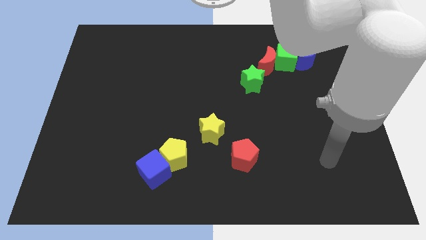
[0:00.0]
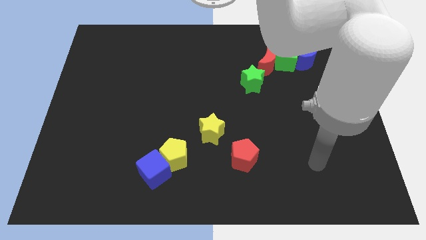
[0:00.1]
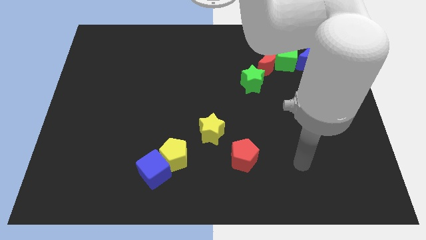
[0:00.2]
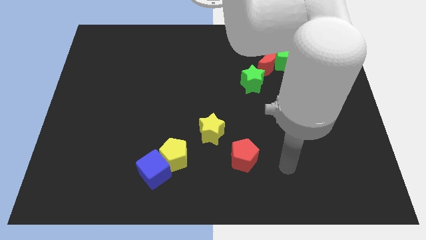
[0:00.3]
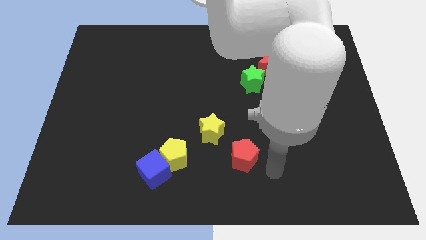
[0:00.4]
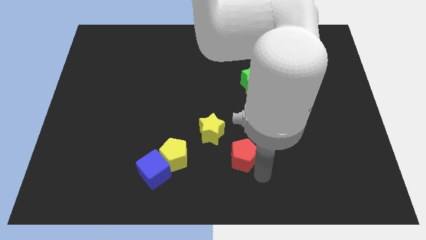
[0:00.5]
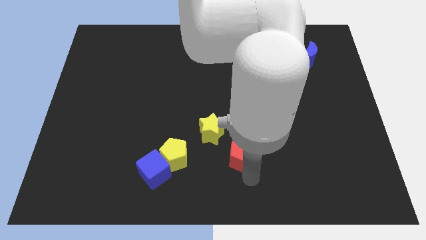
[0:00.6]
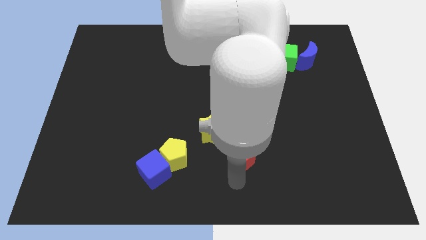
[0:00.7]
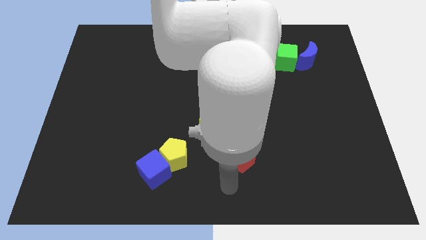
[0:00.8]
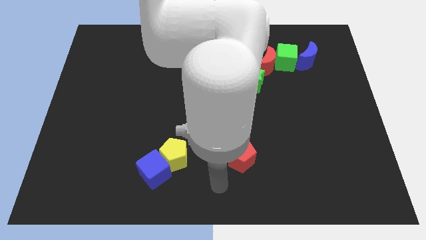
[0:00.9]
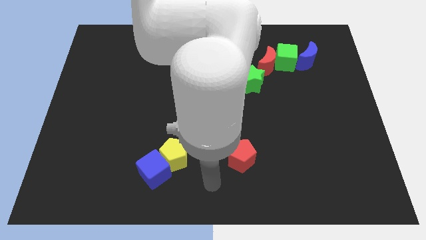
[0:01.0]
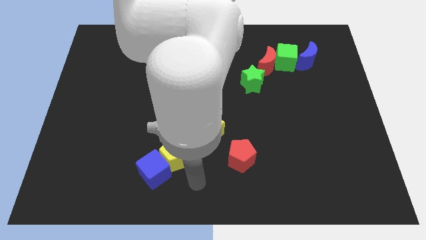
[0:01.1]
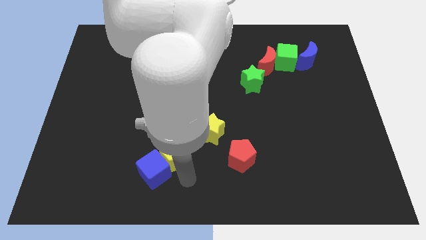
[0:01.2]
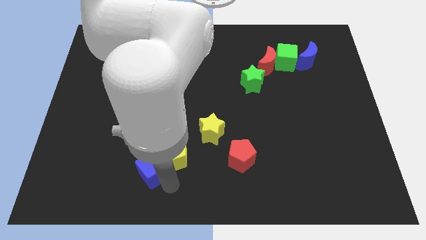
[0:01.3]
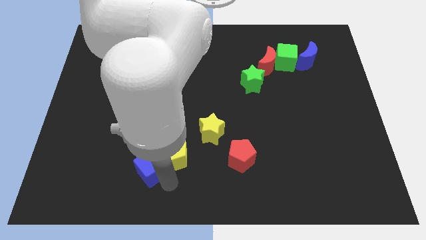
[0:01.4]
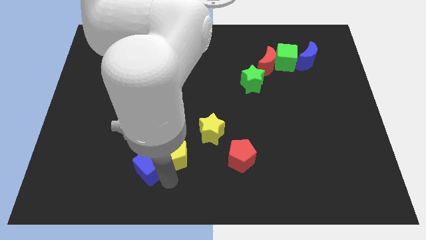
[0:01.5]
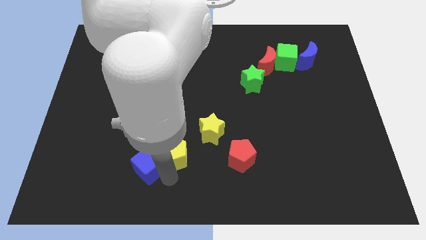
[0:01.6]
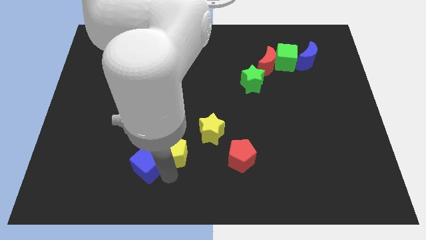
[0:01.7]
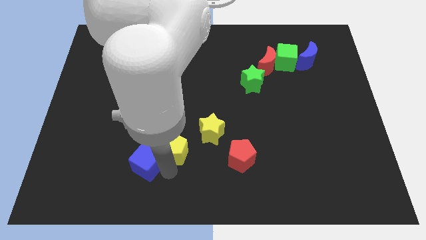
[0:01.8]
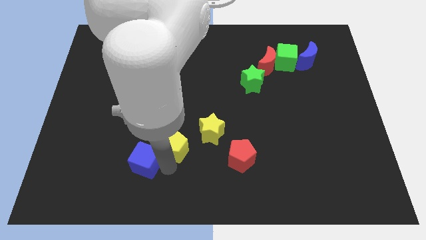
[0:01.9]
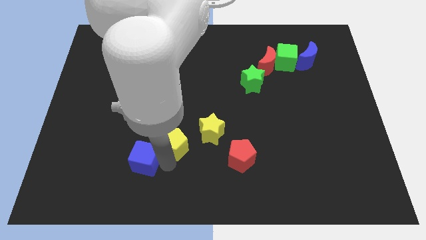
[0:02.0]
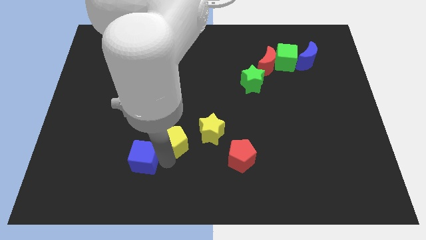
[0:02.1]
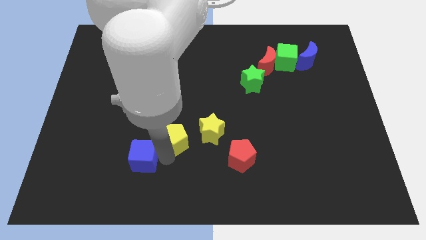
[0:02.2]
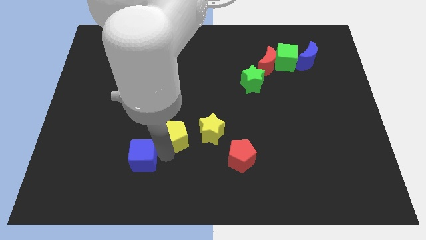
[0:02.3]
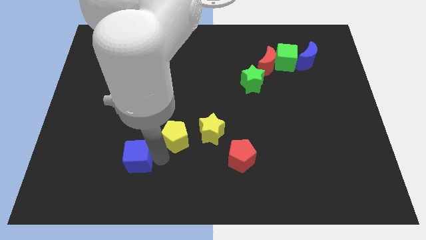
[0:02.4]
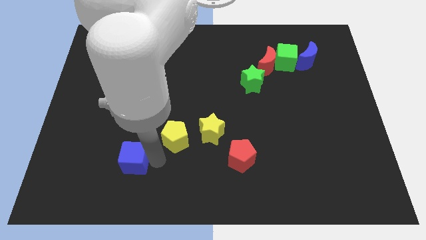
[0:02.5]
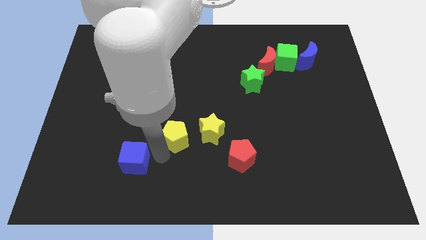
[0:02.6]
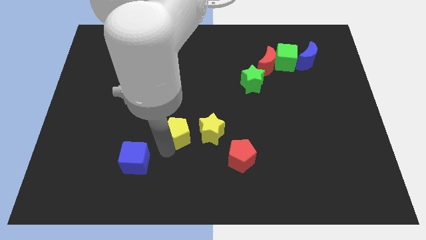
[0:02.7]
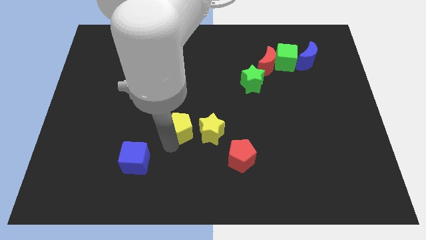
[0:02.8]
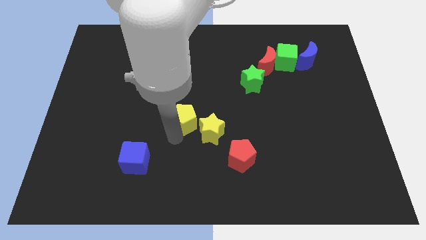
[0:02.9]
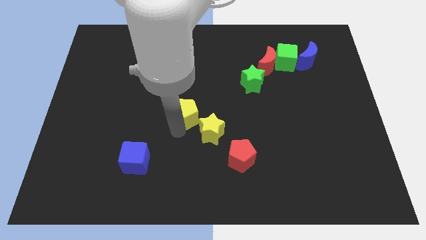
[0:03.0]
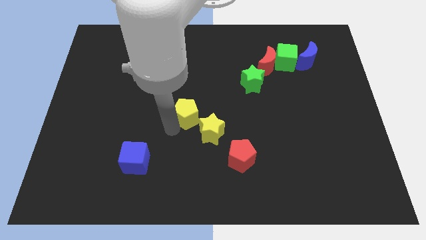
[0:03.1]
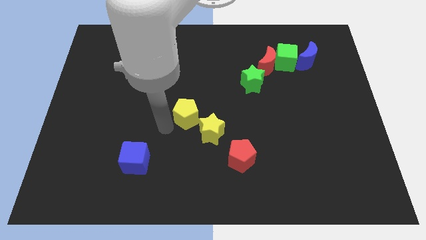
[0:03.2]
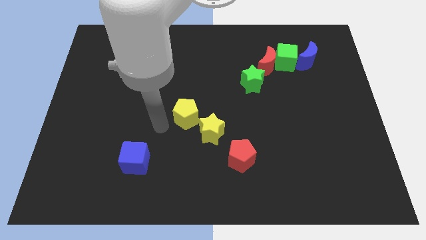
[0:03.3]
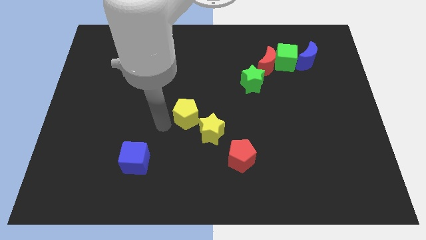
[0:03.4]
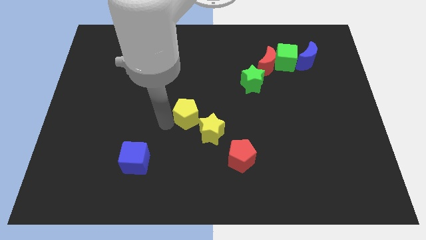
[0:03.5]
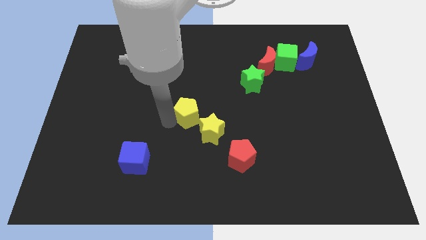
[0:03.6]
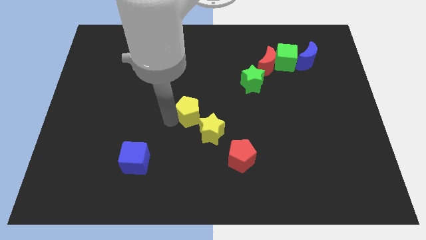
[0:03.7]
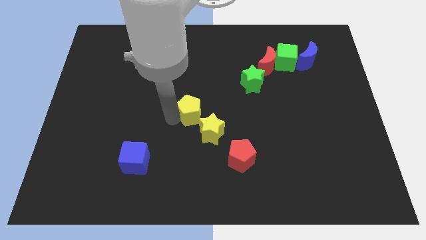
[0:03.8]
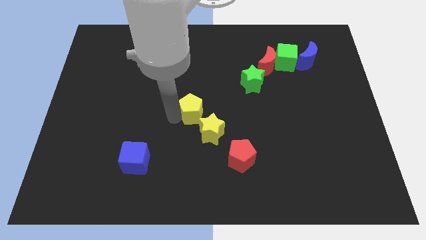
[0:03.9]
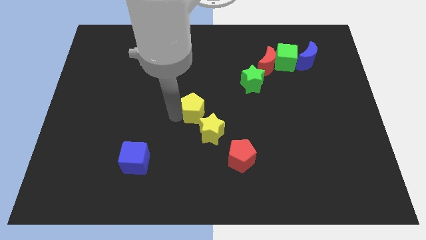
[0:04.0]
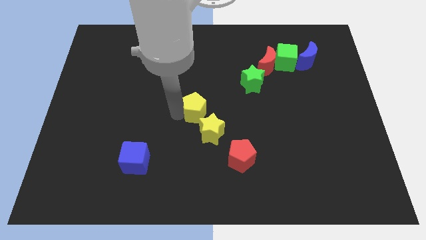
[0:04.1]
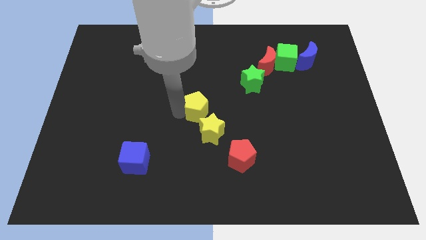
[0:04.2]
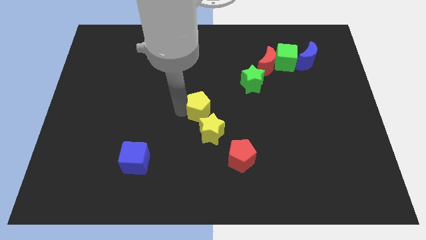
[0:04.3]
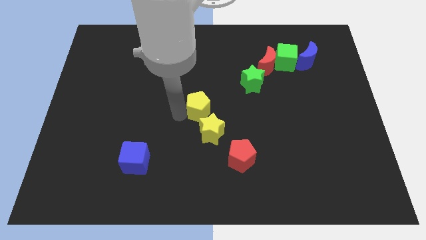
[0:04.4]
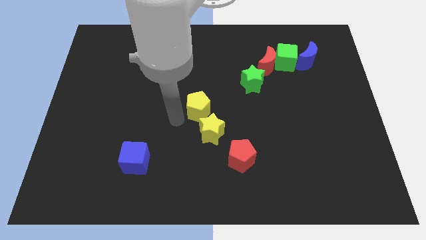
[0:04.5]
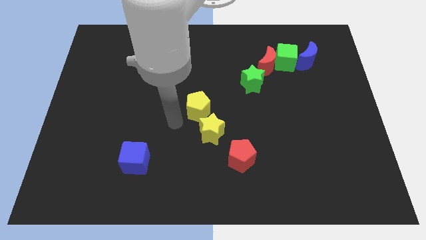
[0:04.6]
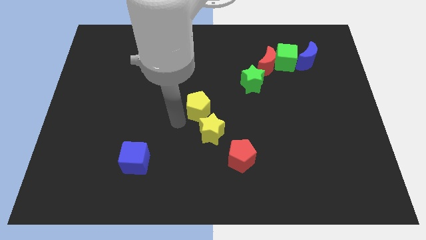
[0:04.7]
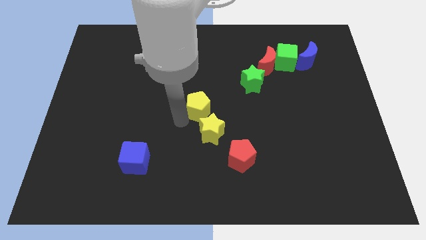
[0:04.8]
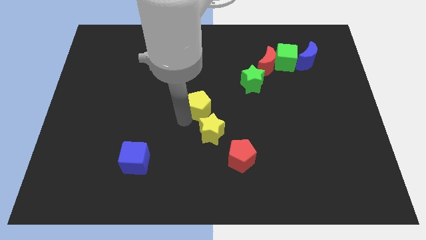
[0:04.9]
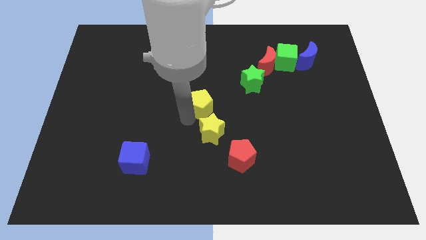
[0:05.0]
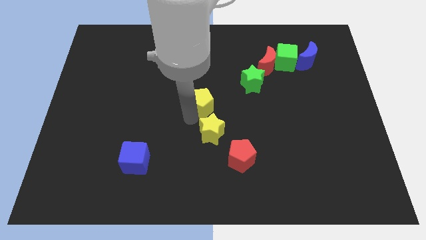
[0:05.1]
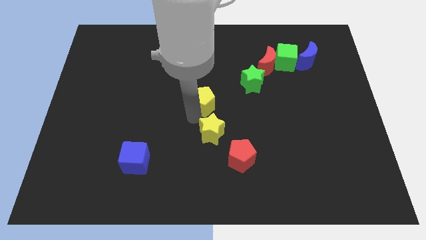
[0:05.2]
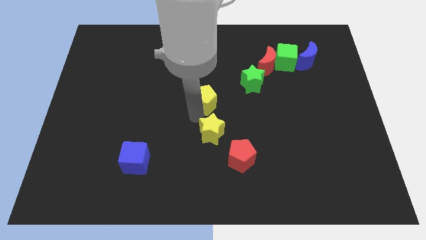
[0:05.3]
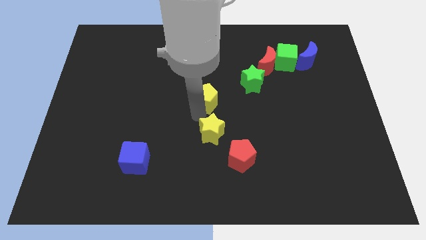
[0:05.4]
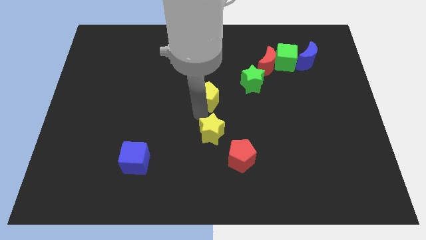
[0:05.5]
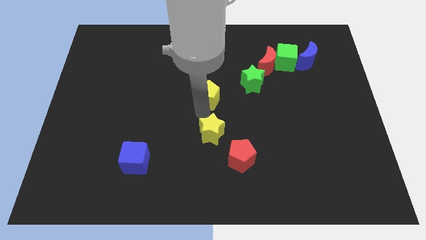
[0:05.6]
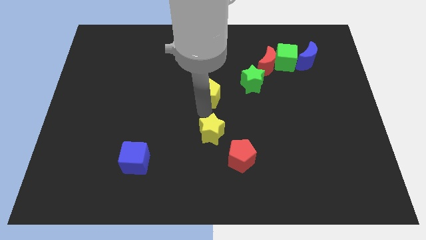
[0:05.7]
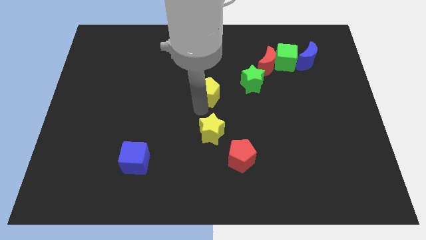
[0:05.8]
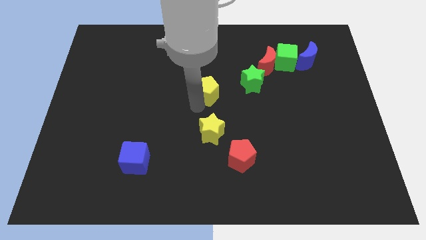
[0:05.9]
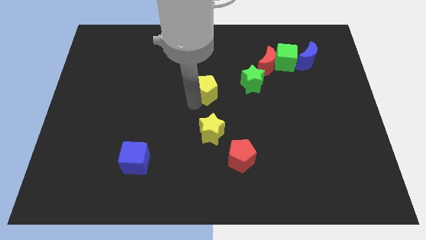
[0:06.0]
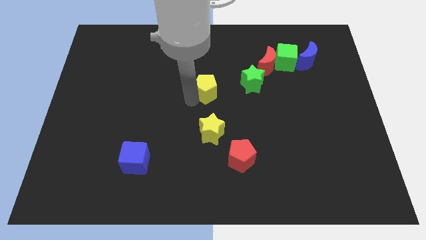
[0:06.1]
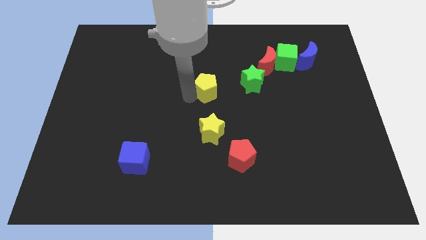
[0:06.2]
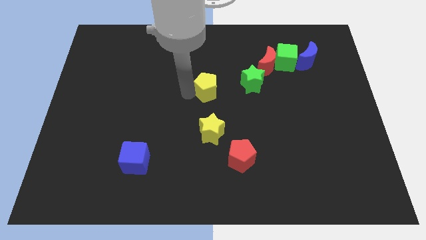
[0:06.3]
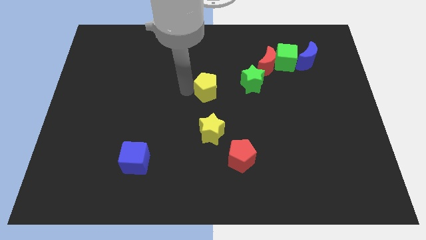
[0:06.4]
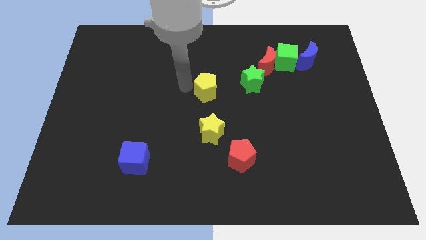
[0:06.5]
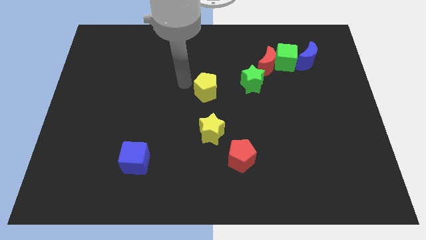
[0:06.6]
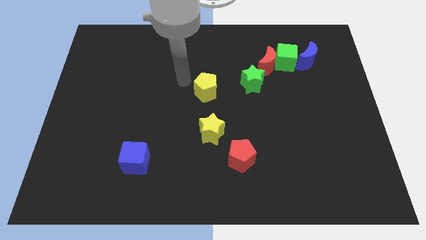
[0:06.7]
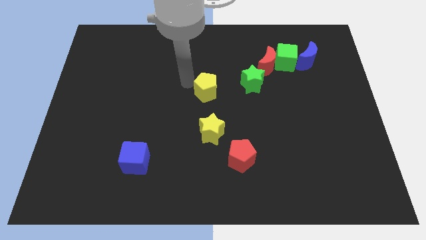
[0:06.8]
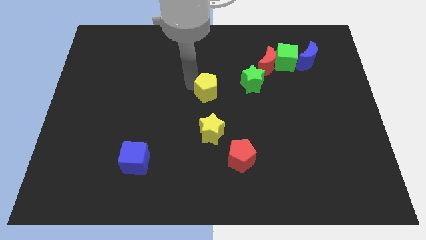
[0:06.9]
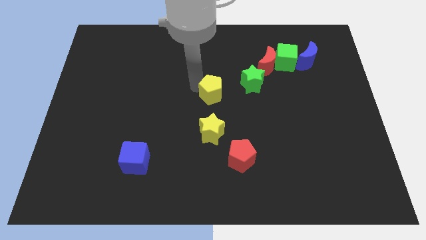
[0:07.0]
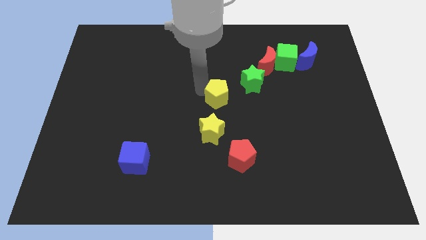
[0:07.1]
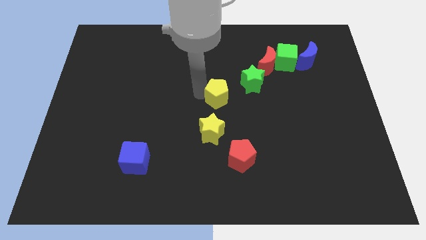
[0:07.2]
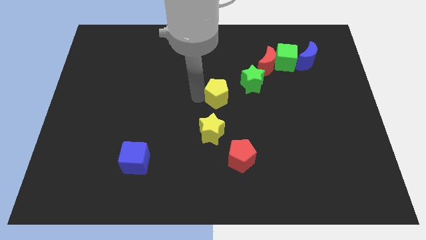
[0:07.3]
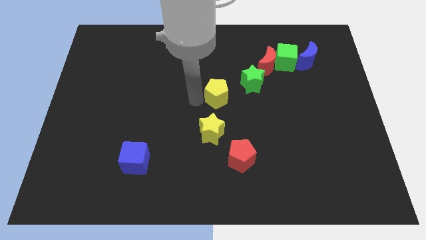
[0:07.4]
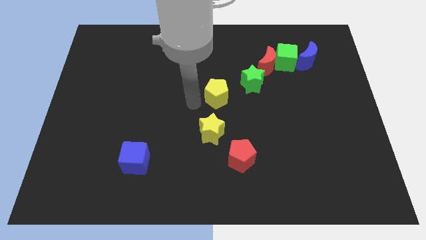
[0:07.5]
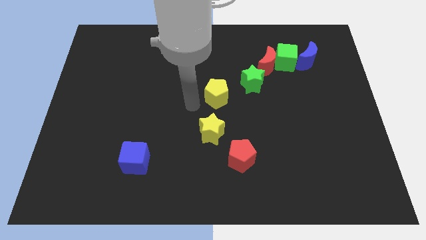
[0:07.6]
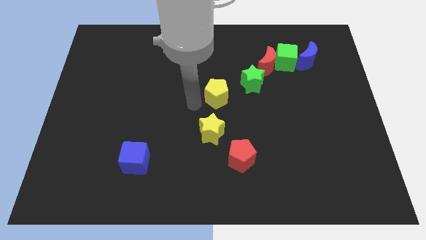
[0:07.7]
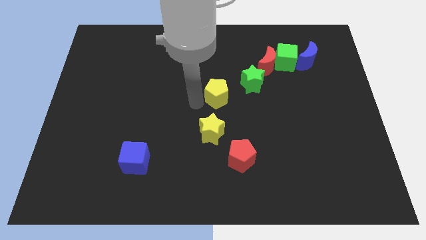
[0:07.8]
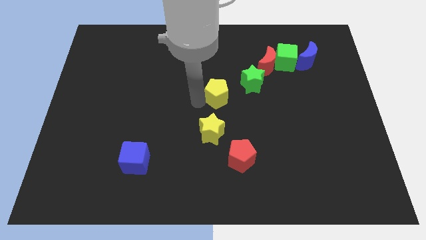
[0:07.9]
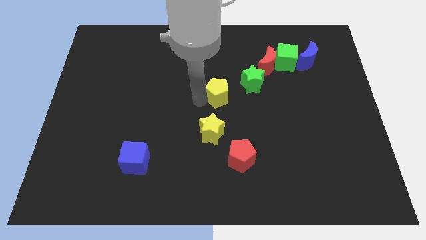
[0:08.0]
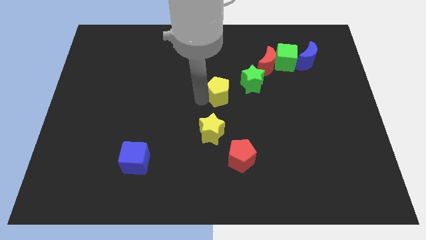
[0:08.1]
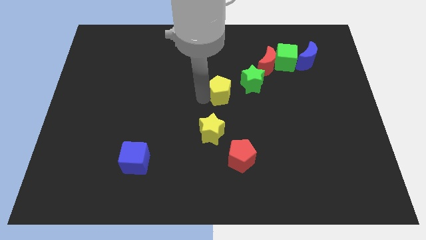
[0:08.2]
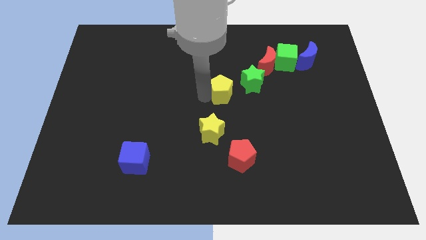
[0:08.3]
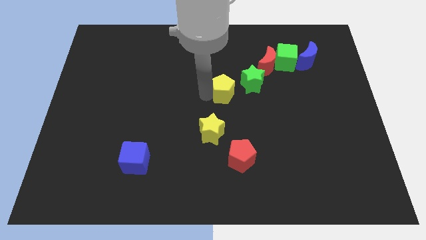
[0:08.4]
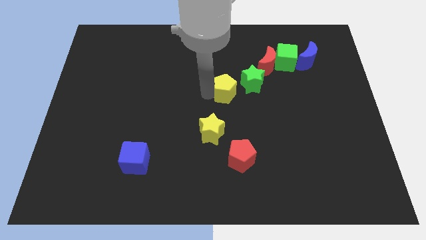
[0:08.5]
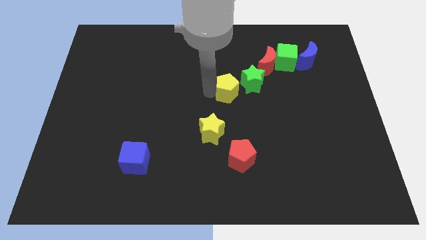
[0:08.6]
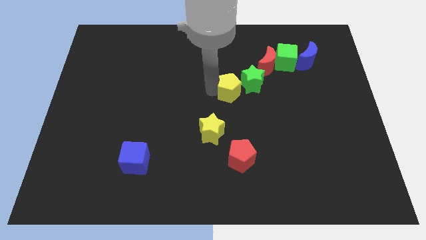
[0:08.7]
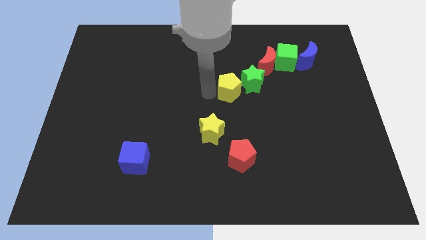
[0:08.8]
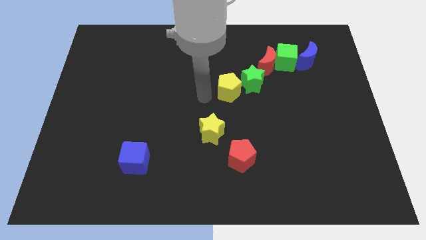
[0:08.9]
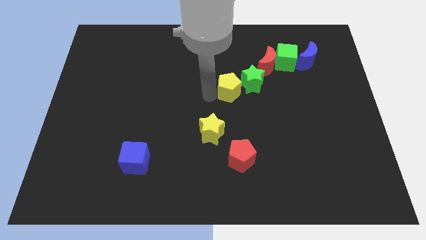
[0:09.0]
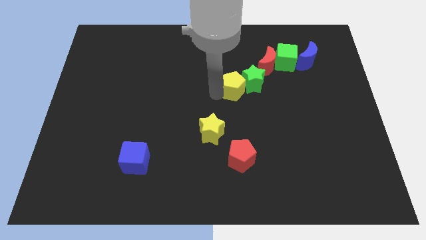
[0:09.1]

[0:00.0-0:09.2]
move the yellow pentagon close to the green star
